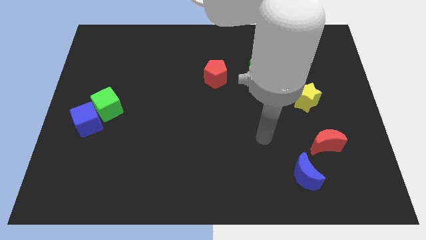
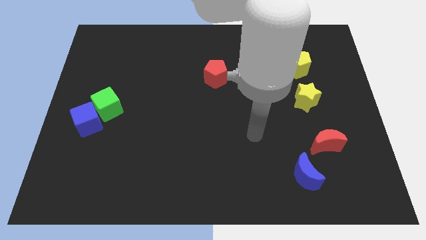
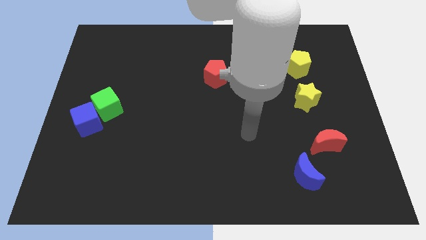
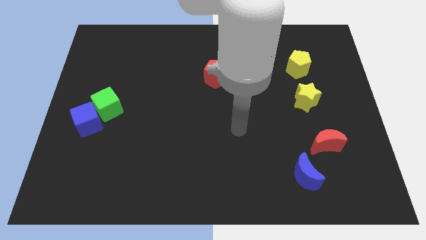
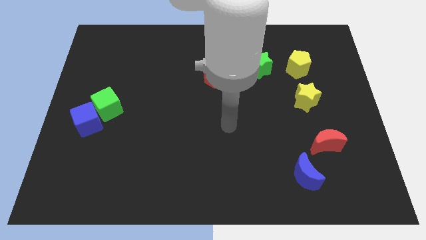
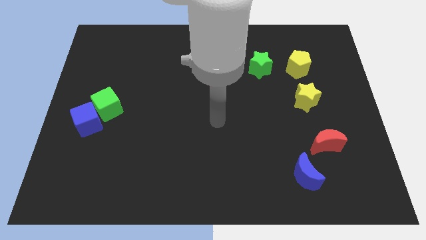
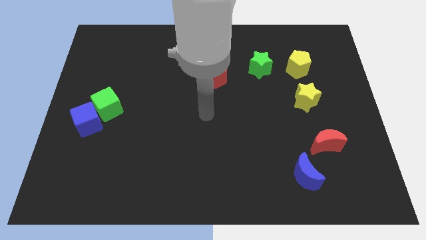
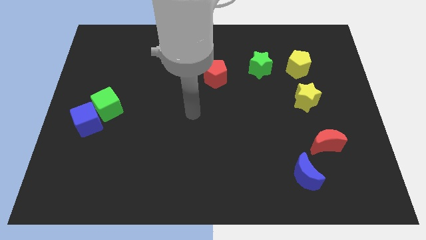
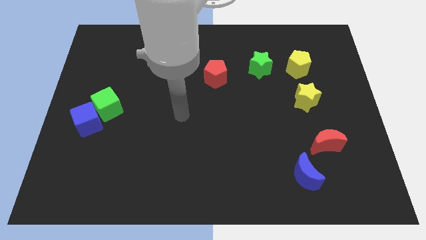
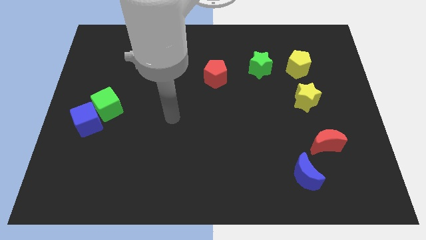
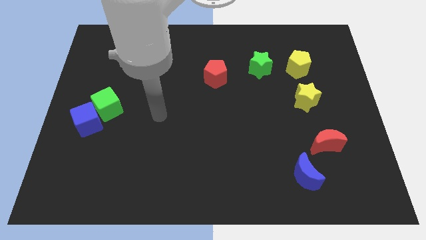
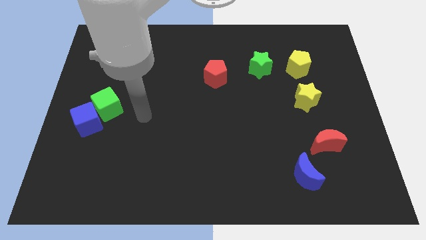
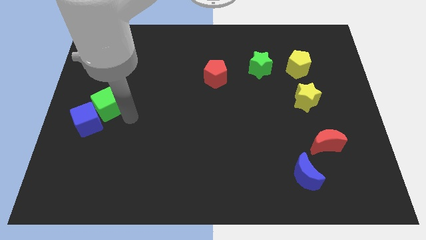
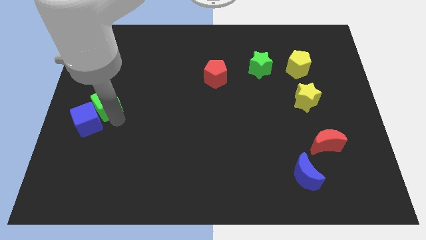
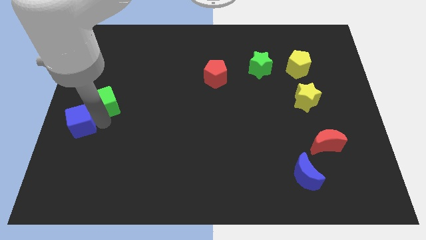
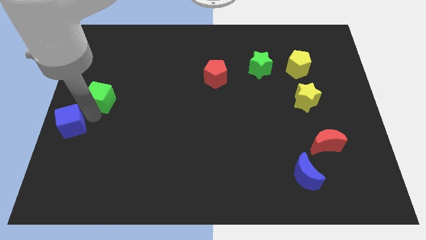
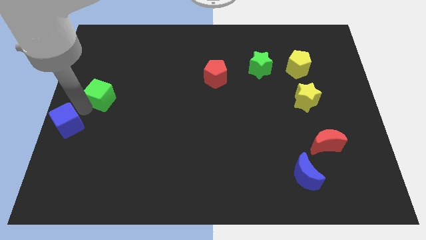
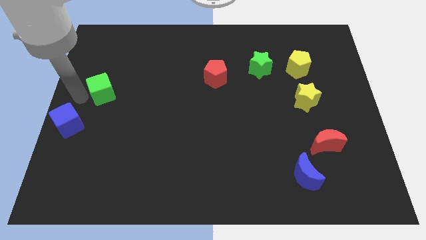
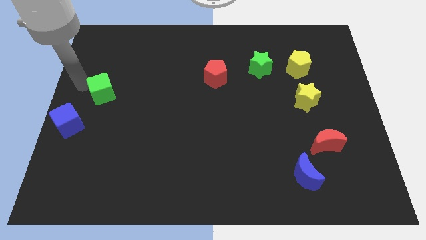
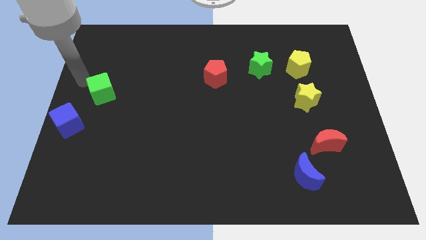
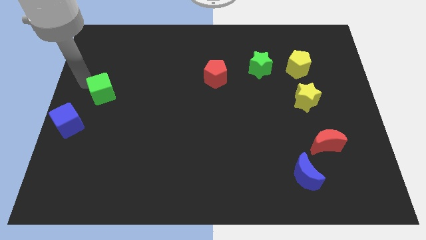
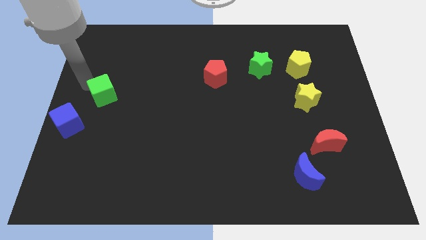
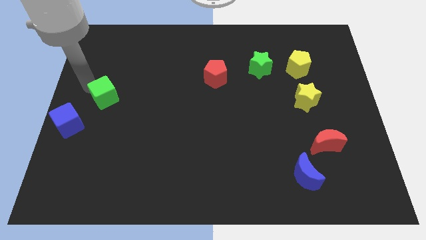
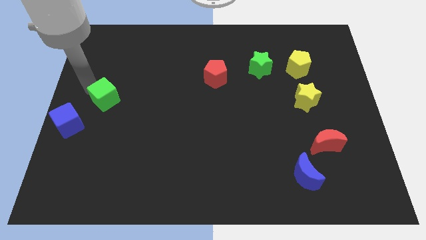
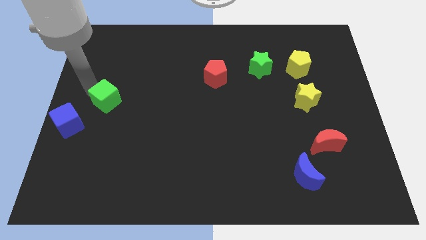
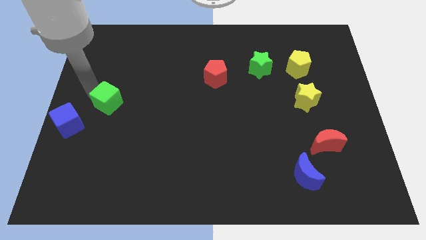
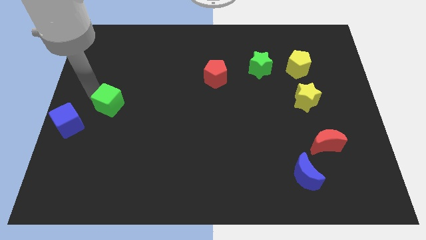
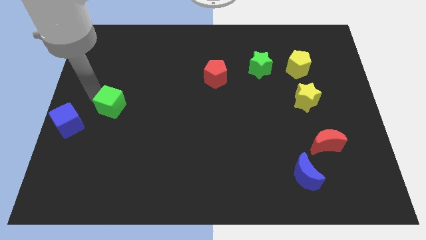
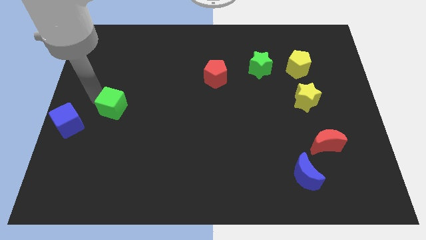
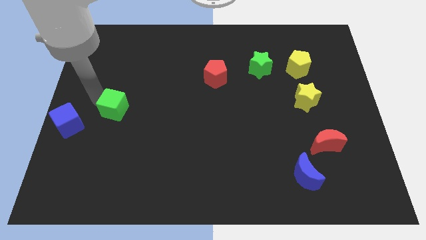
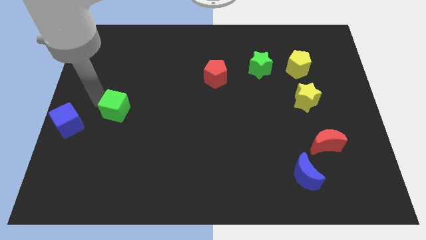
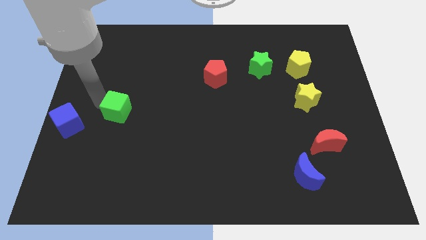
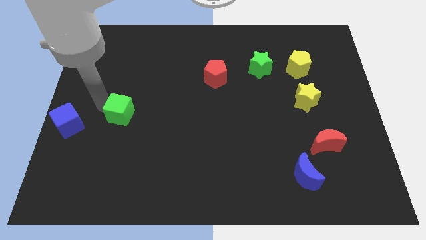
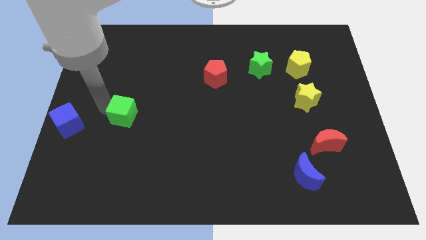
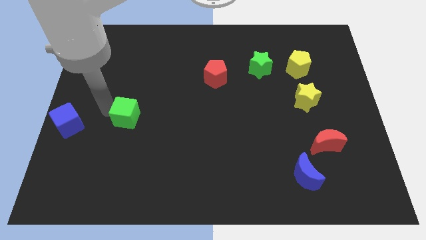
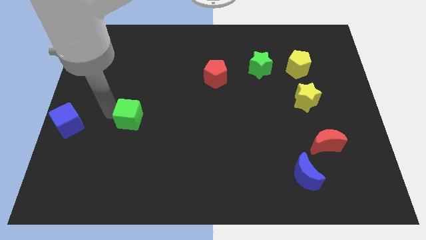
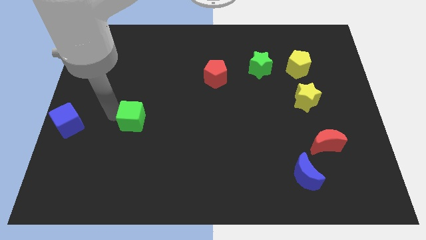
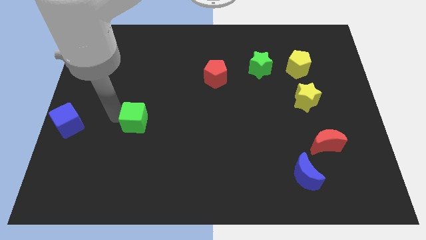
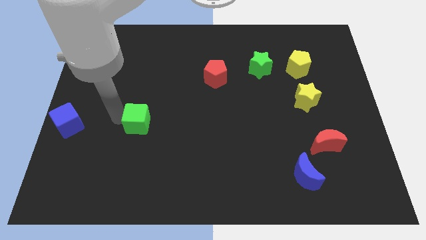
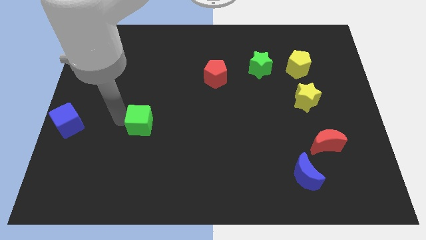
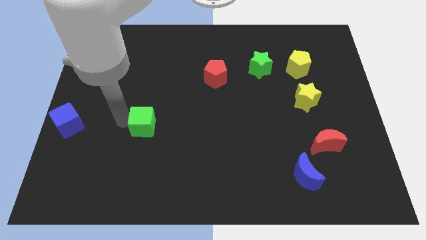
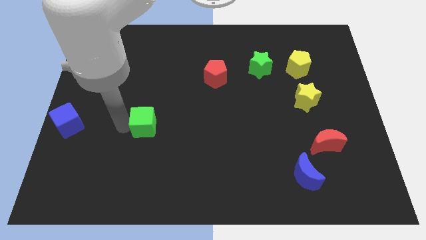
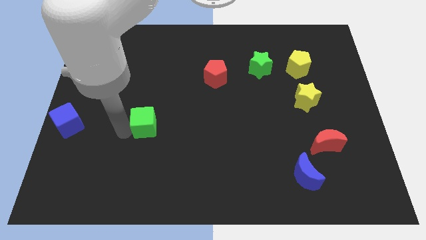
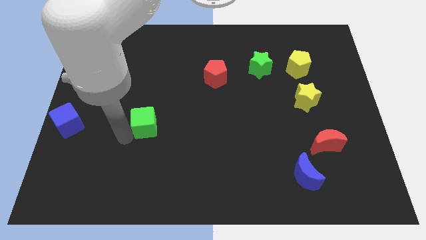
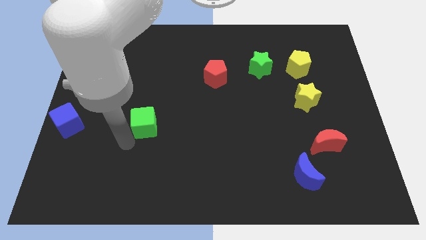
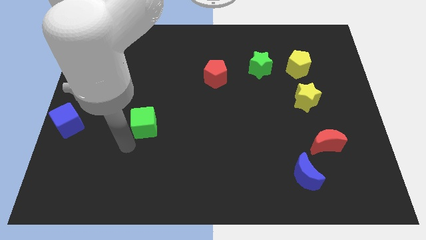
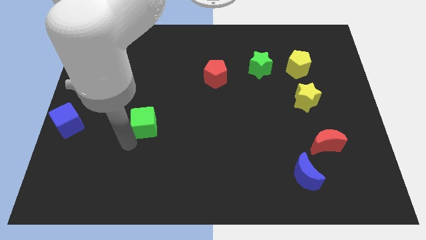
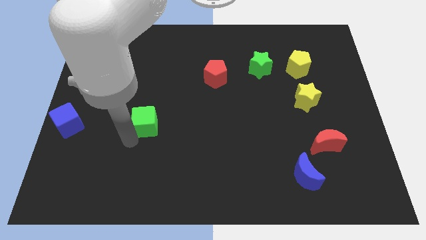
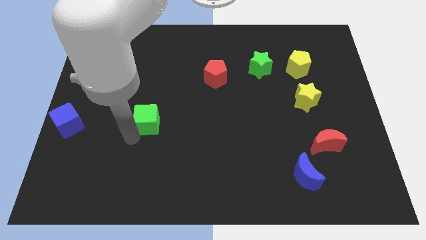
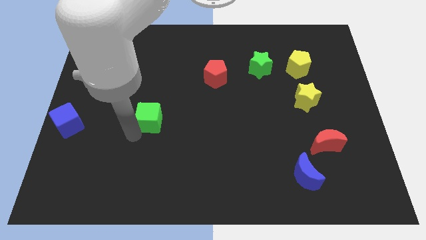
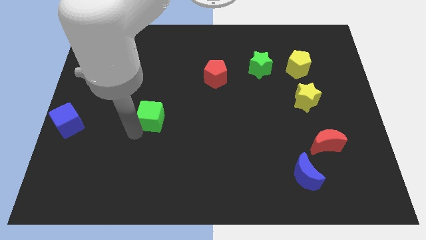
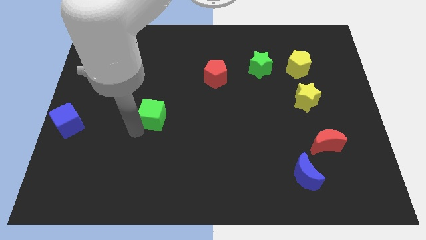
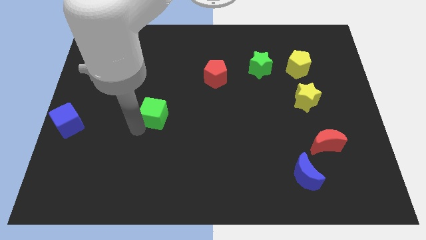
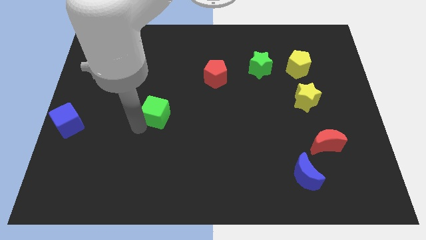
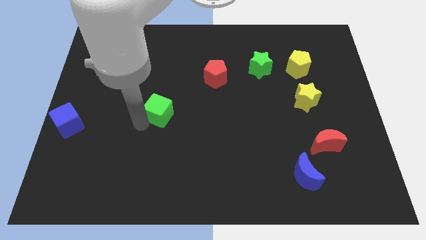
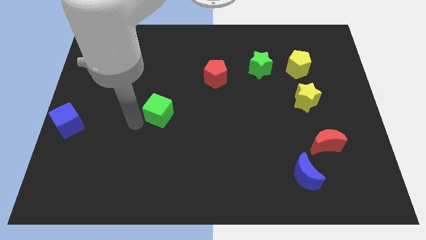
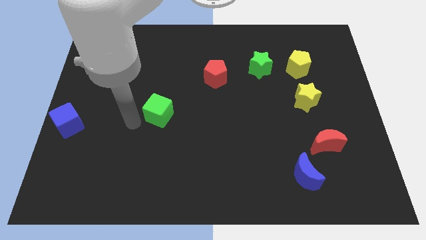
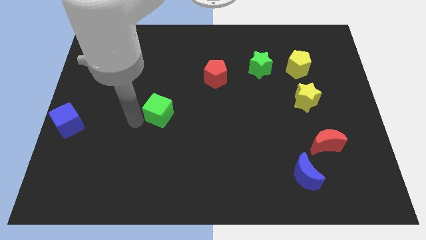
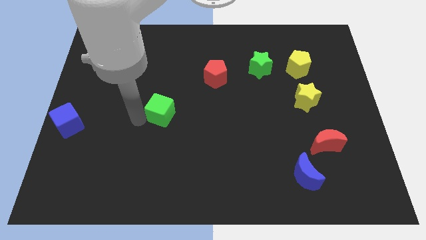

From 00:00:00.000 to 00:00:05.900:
push the green cube to the center

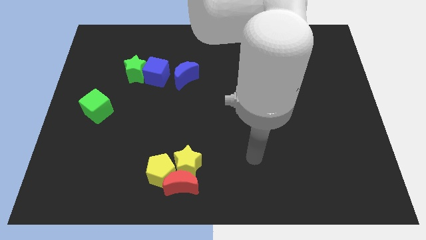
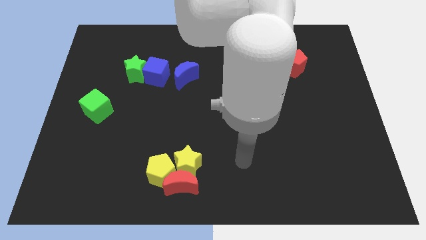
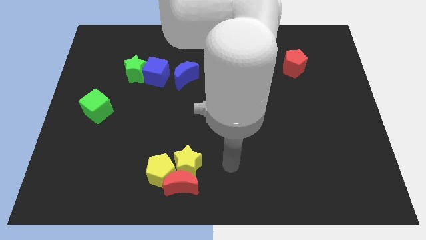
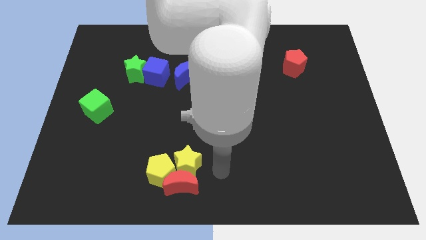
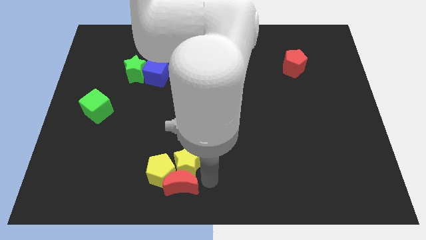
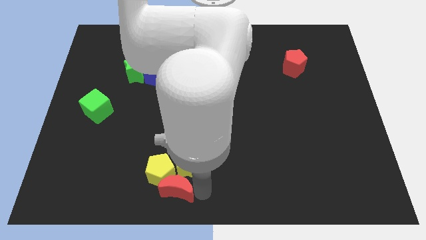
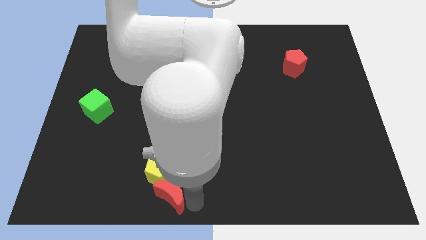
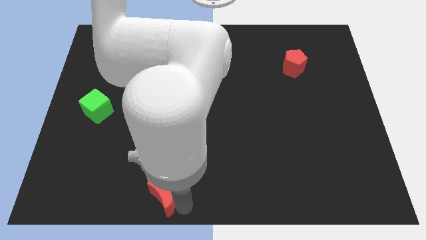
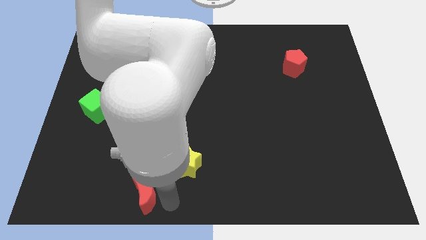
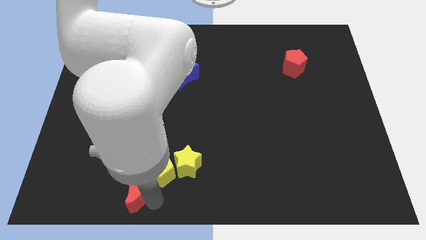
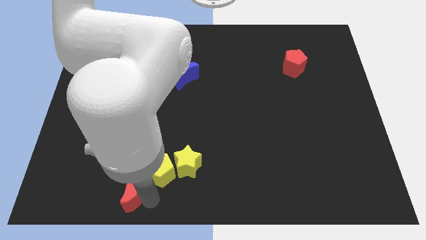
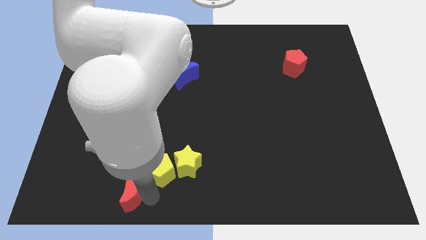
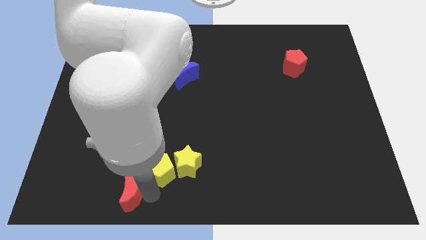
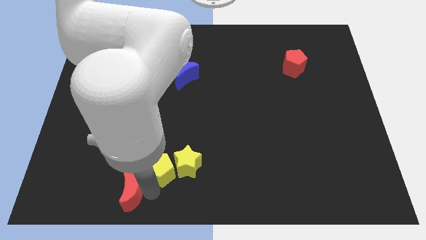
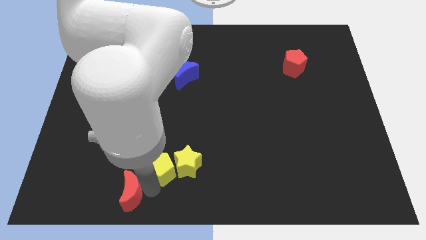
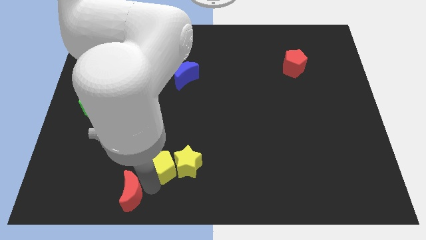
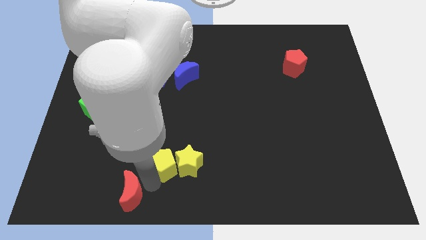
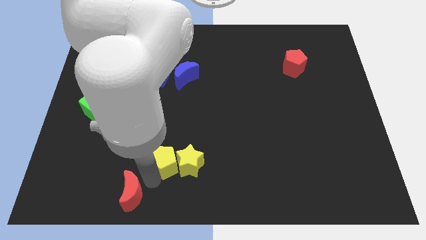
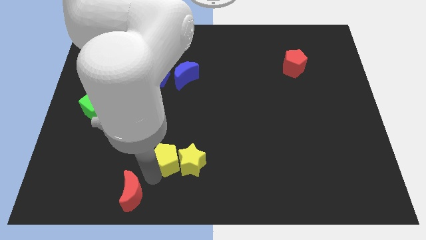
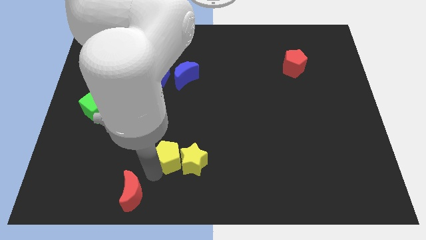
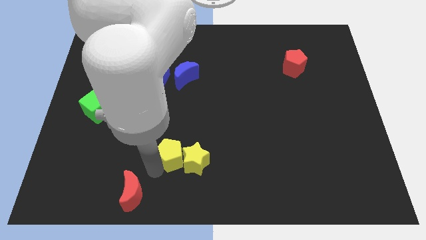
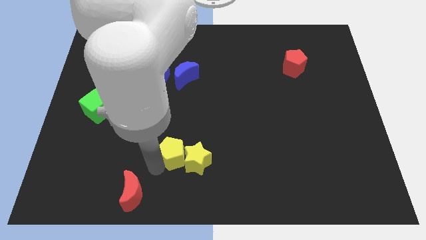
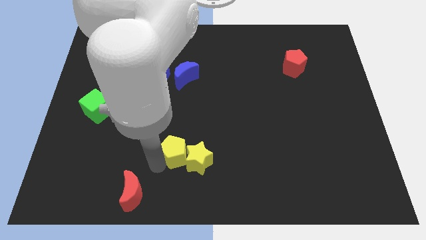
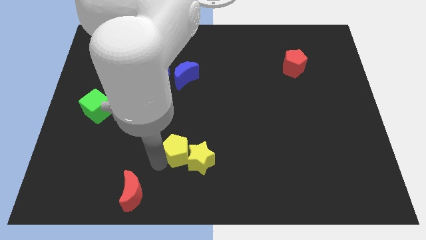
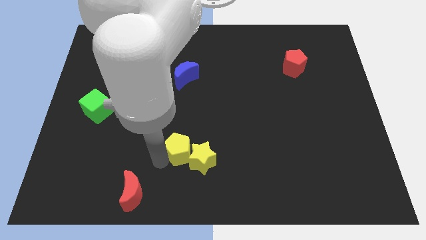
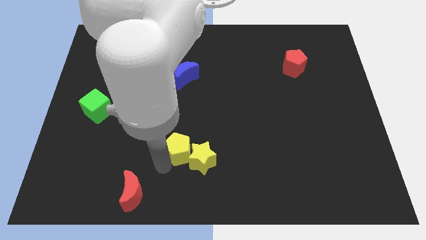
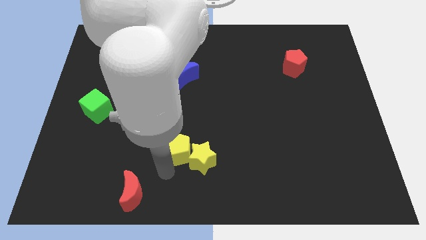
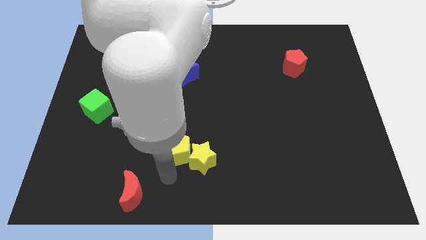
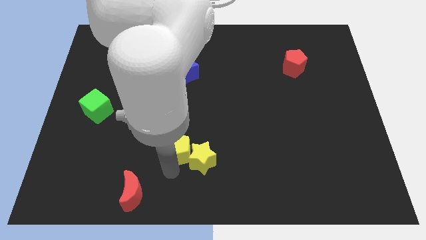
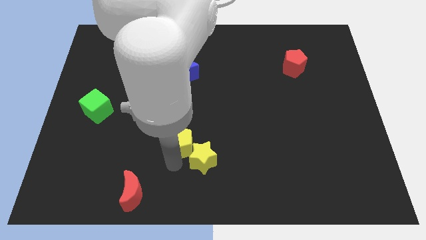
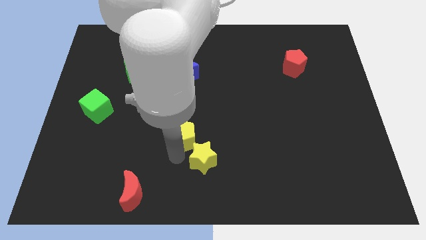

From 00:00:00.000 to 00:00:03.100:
put the yellow pentagon to the center
